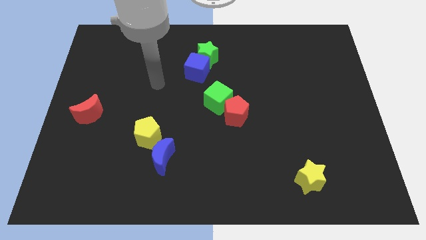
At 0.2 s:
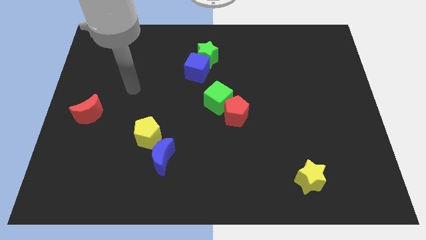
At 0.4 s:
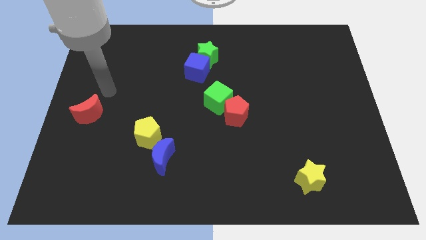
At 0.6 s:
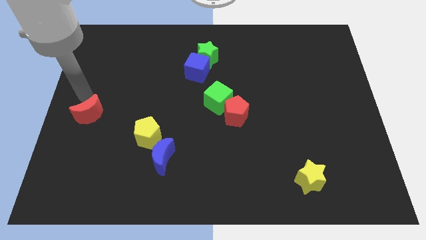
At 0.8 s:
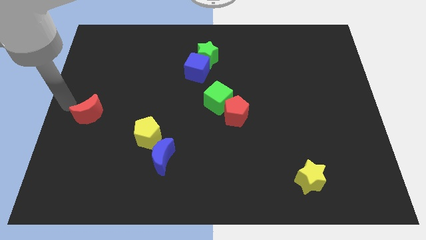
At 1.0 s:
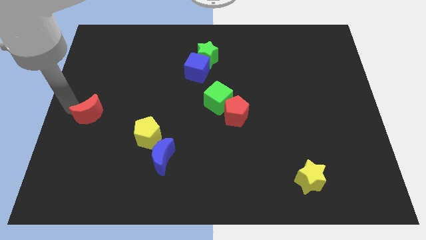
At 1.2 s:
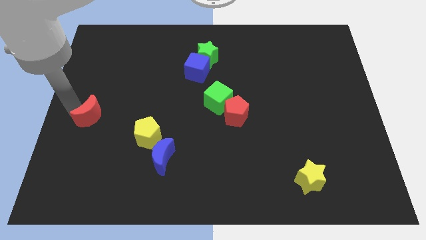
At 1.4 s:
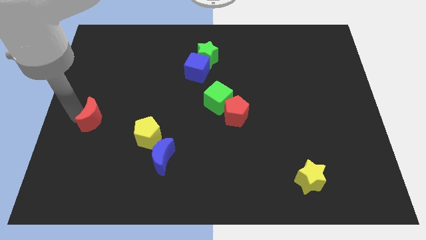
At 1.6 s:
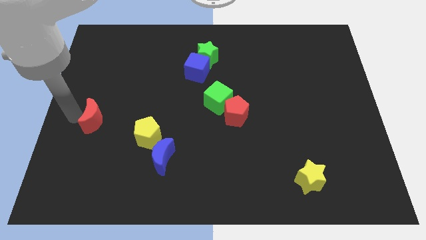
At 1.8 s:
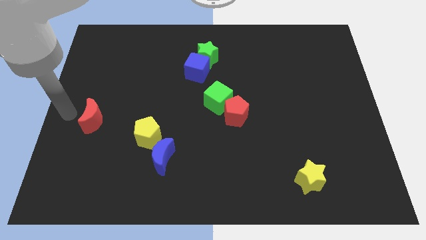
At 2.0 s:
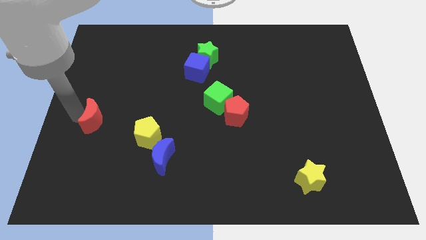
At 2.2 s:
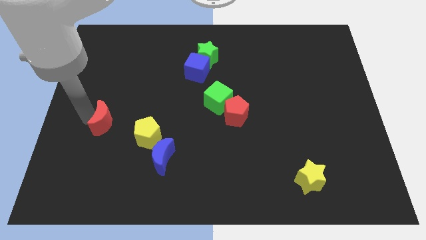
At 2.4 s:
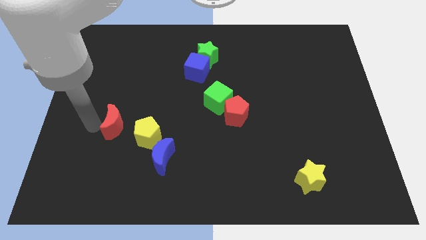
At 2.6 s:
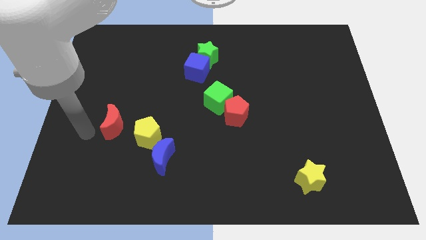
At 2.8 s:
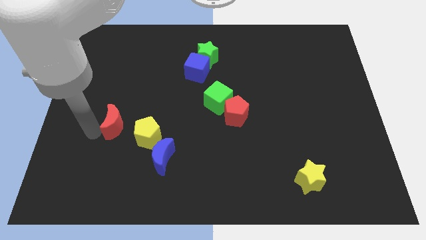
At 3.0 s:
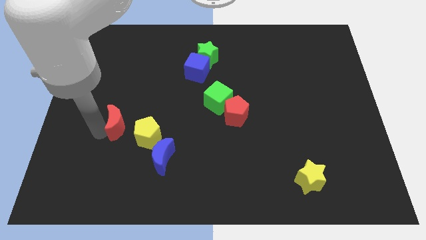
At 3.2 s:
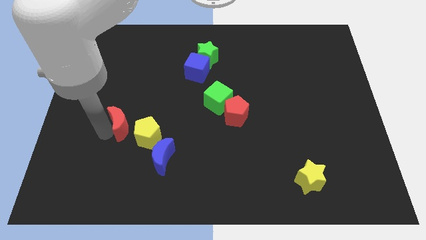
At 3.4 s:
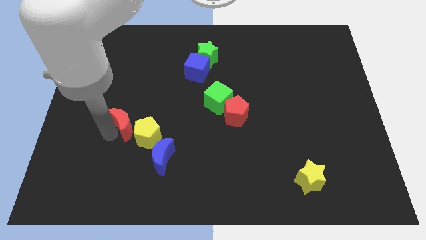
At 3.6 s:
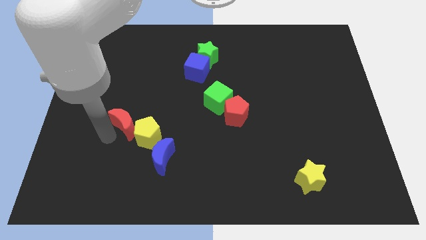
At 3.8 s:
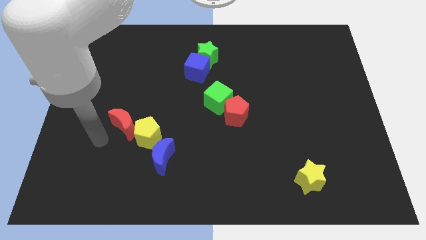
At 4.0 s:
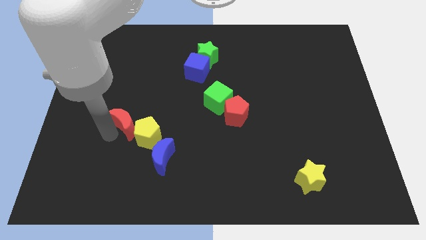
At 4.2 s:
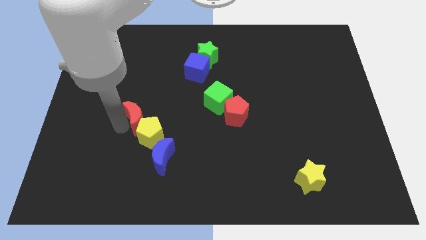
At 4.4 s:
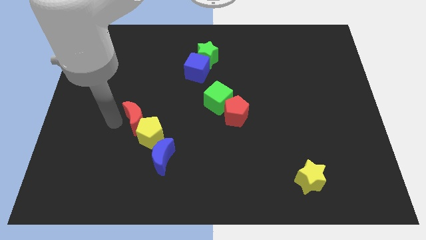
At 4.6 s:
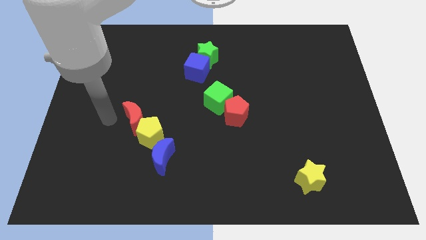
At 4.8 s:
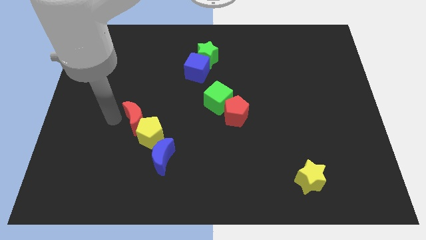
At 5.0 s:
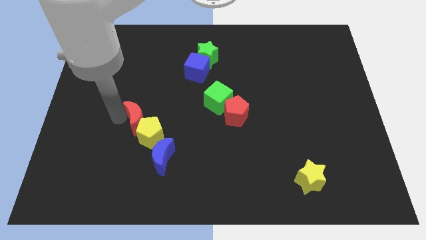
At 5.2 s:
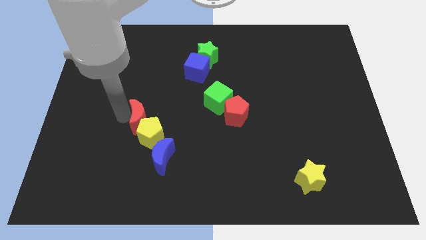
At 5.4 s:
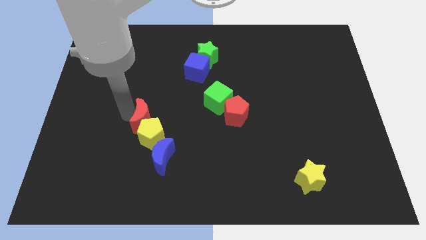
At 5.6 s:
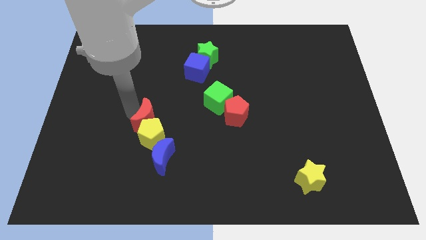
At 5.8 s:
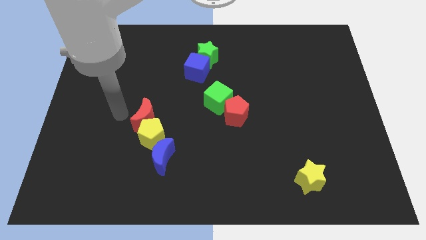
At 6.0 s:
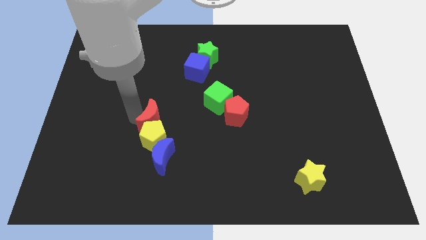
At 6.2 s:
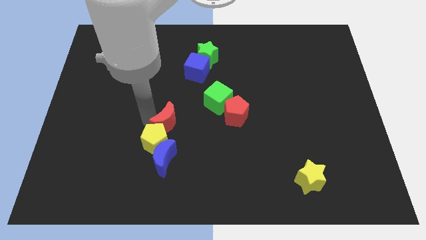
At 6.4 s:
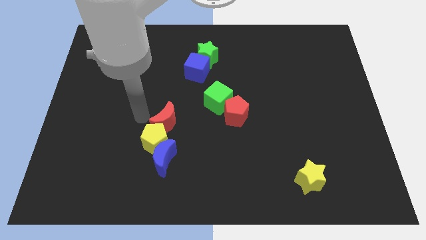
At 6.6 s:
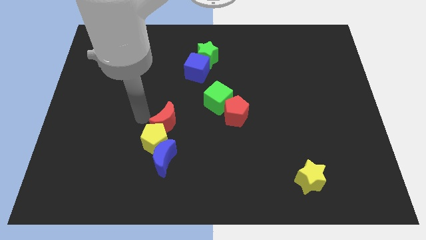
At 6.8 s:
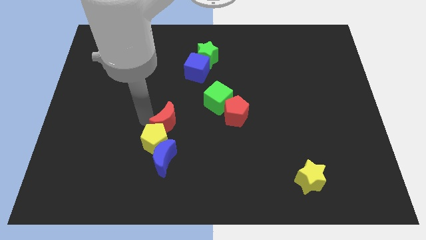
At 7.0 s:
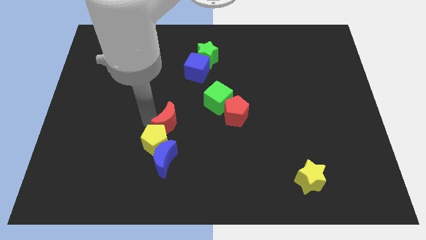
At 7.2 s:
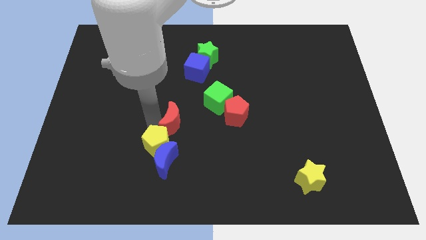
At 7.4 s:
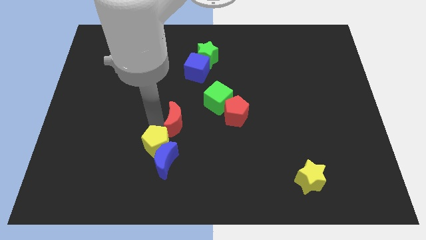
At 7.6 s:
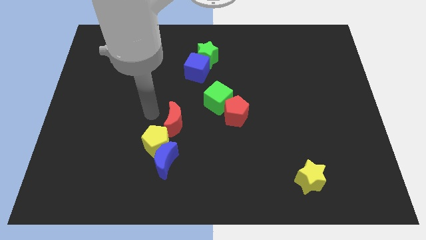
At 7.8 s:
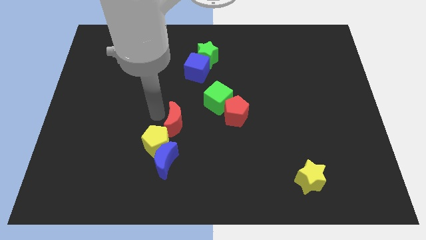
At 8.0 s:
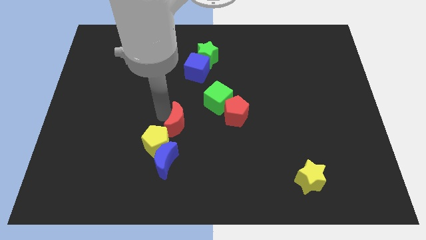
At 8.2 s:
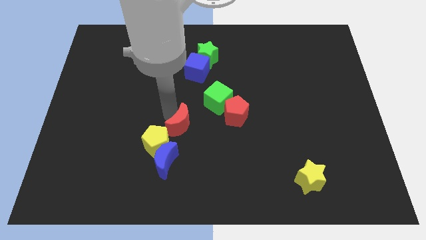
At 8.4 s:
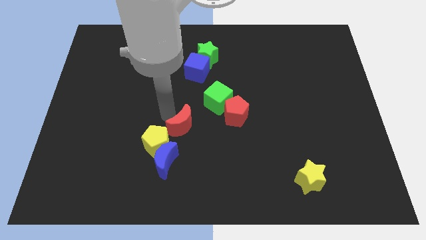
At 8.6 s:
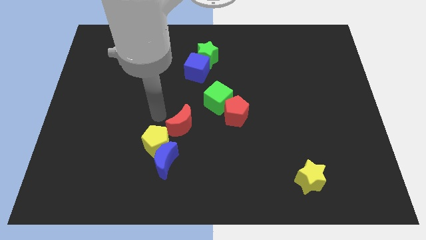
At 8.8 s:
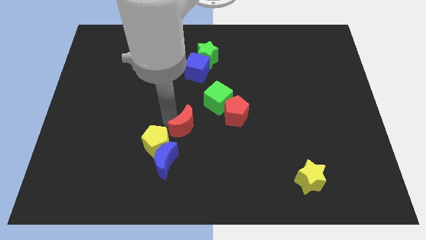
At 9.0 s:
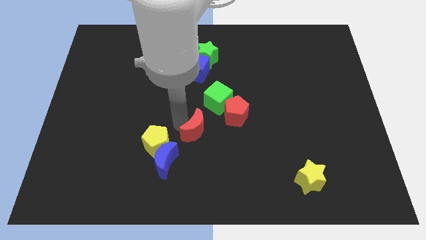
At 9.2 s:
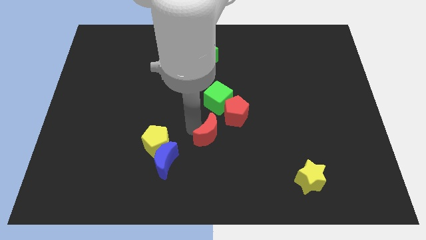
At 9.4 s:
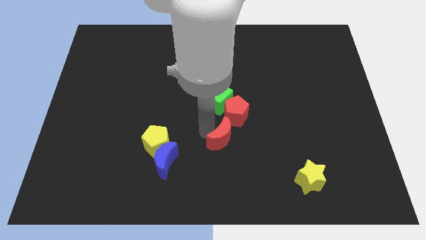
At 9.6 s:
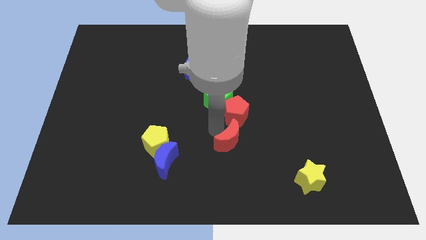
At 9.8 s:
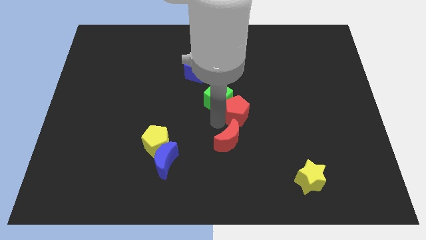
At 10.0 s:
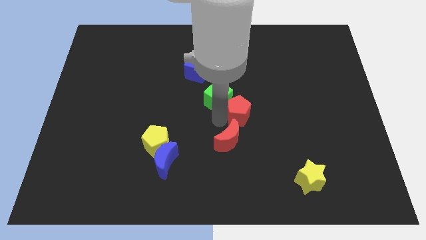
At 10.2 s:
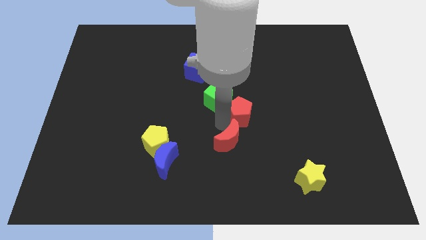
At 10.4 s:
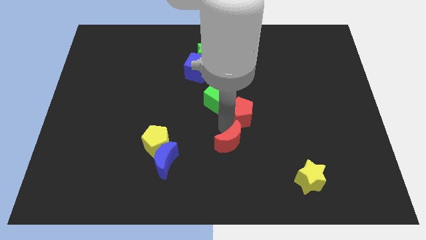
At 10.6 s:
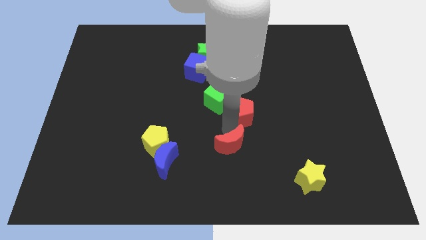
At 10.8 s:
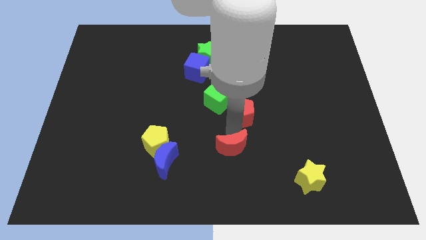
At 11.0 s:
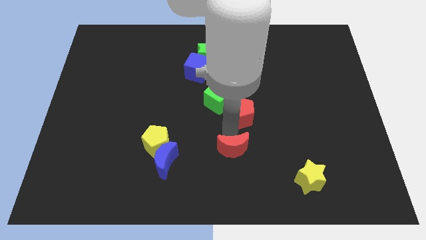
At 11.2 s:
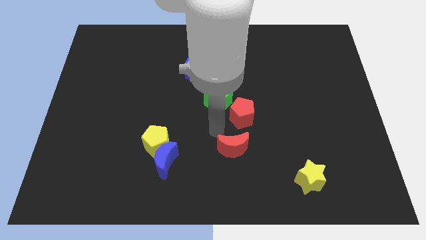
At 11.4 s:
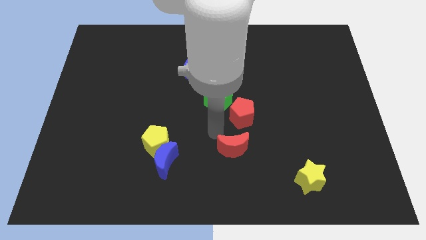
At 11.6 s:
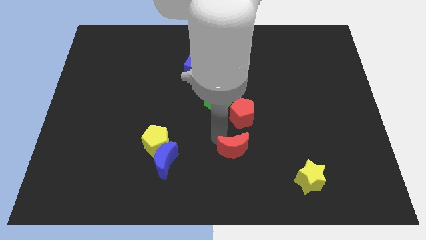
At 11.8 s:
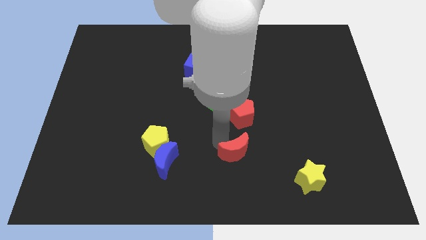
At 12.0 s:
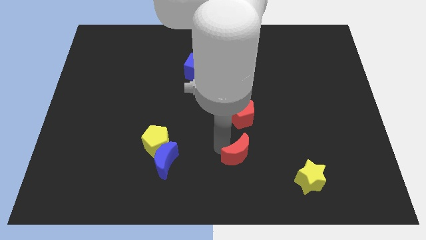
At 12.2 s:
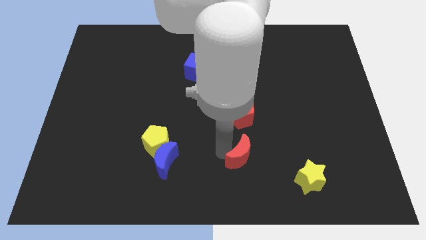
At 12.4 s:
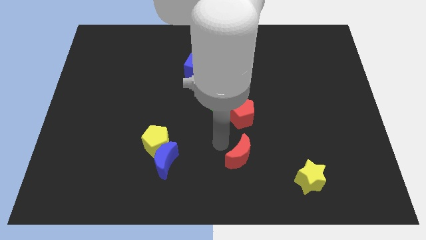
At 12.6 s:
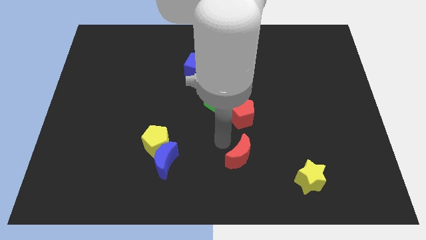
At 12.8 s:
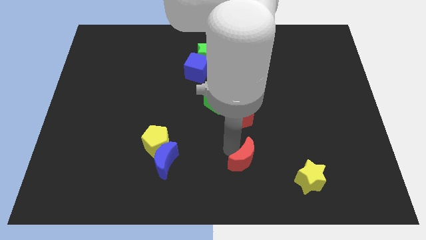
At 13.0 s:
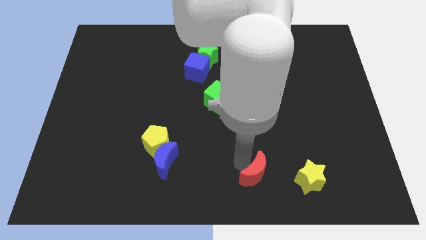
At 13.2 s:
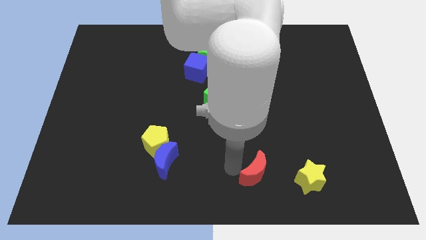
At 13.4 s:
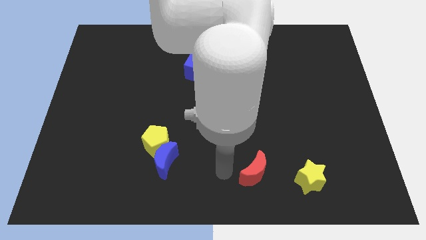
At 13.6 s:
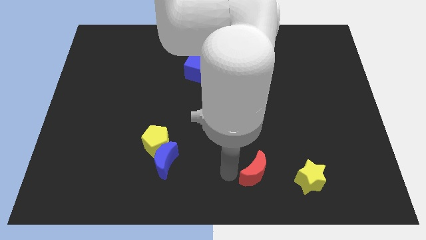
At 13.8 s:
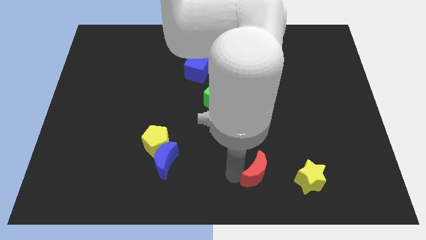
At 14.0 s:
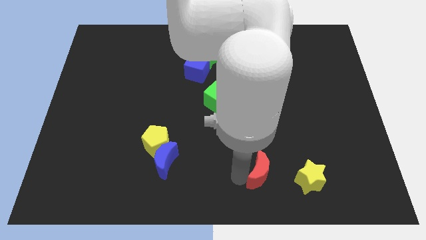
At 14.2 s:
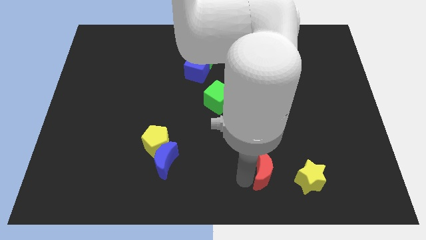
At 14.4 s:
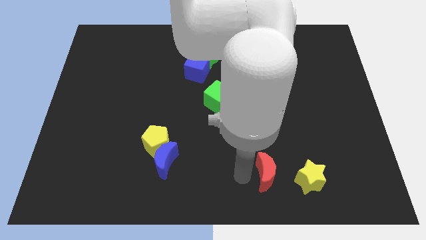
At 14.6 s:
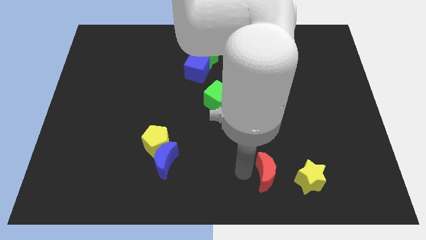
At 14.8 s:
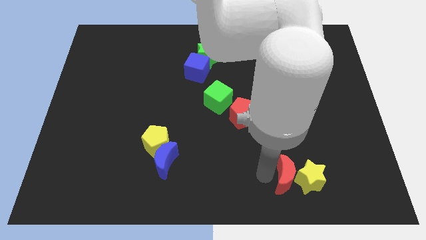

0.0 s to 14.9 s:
move the red moon next to the yellow star

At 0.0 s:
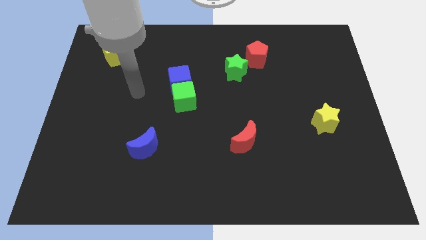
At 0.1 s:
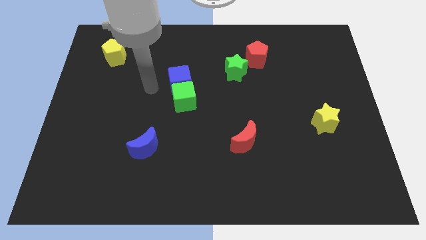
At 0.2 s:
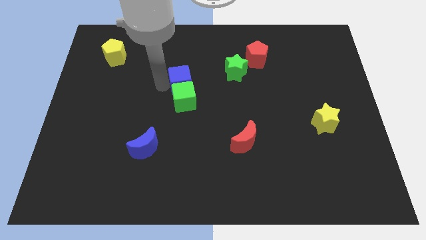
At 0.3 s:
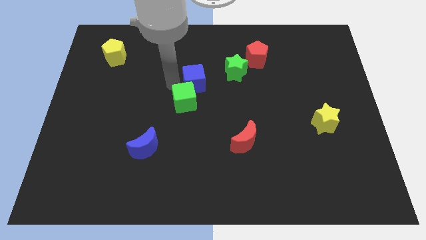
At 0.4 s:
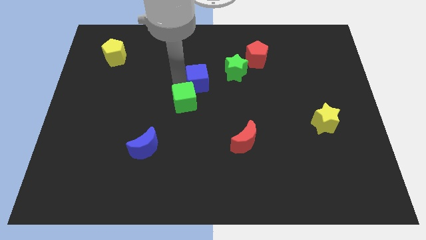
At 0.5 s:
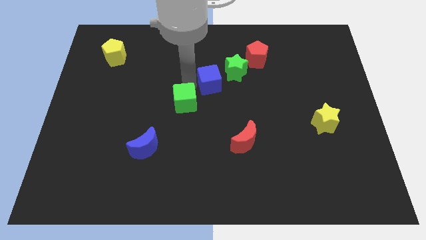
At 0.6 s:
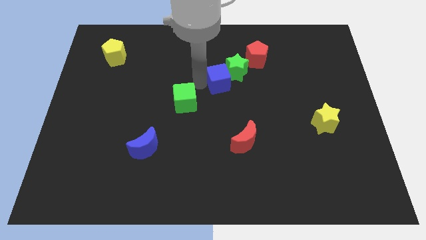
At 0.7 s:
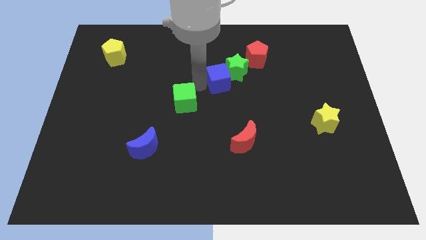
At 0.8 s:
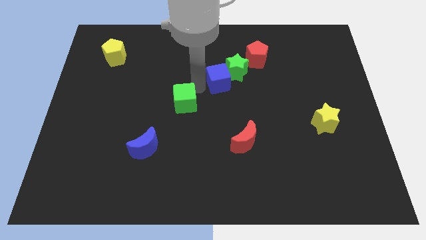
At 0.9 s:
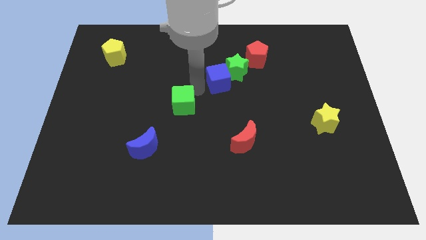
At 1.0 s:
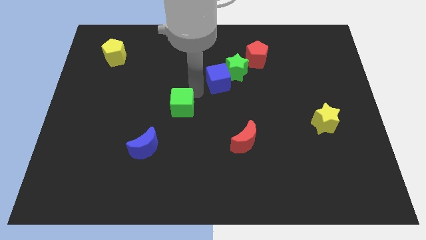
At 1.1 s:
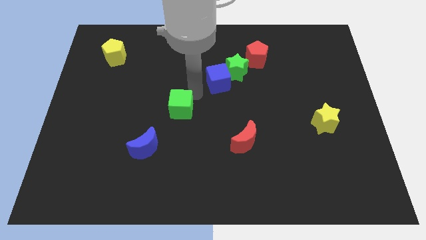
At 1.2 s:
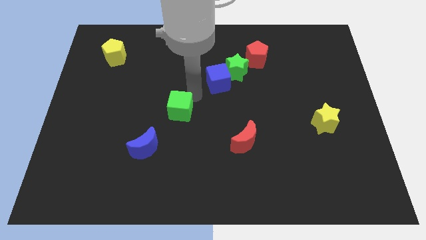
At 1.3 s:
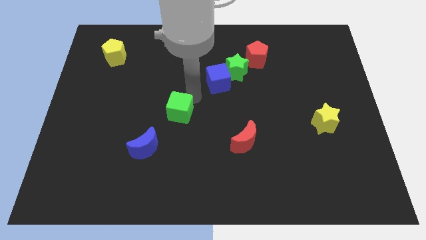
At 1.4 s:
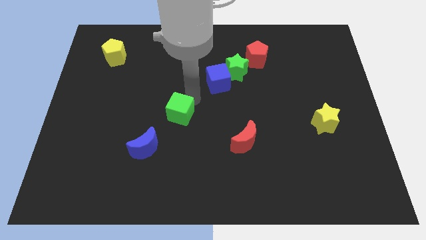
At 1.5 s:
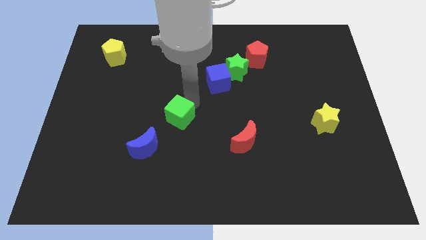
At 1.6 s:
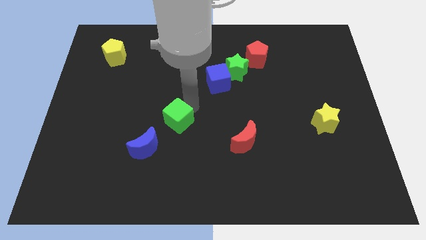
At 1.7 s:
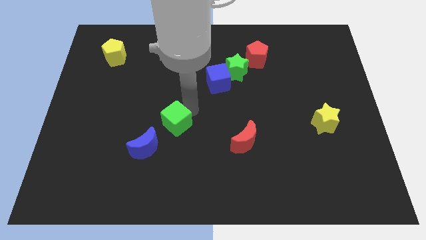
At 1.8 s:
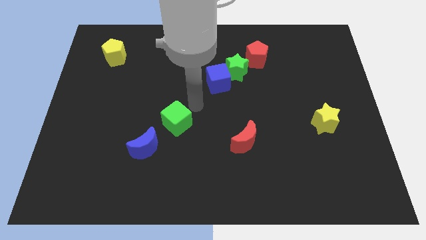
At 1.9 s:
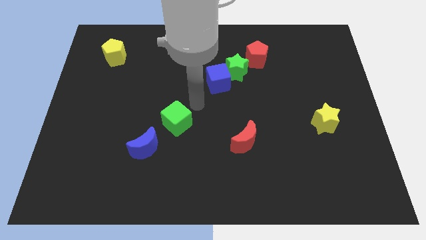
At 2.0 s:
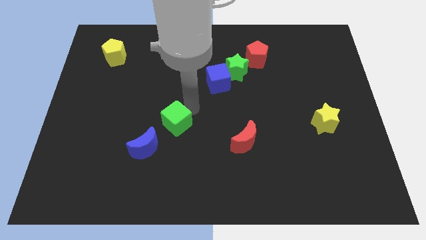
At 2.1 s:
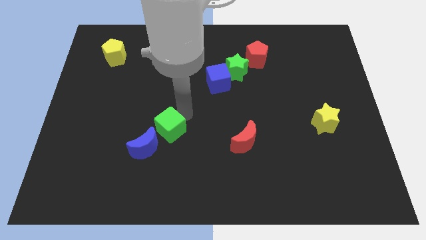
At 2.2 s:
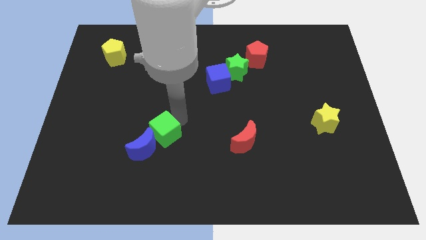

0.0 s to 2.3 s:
push the green cube next to the blue moon
